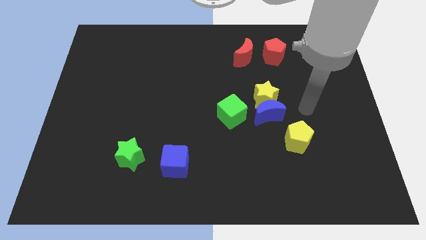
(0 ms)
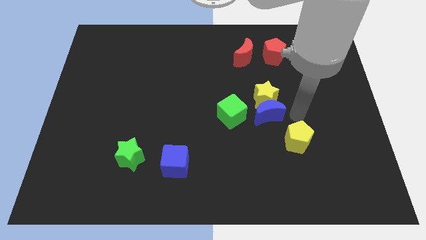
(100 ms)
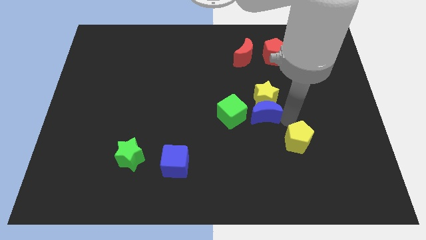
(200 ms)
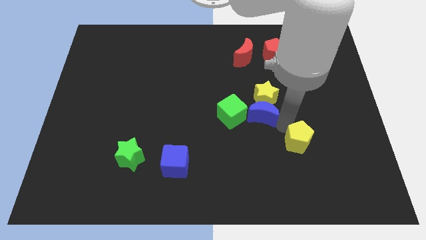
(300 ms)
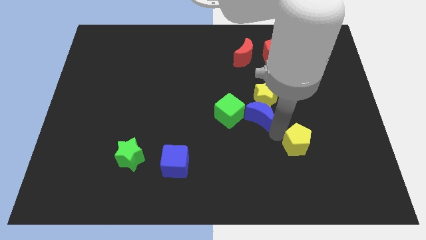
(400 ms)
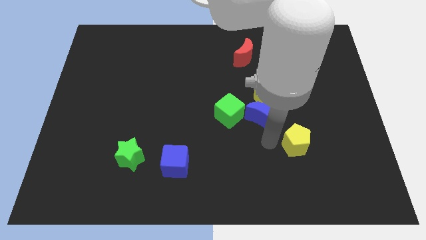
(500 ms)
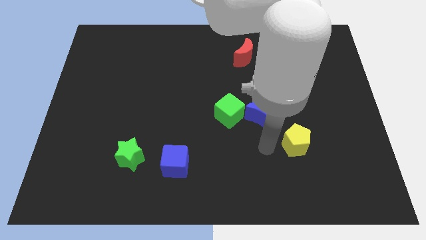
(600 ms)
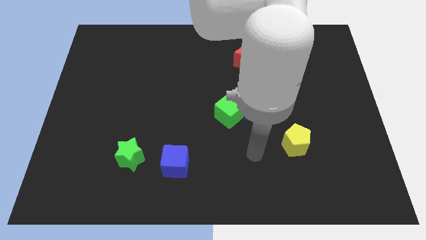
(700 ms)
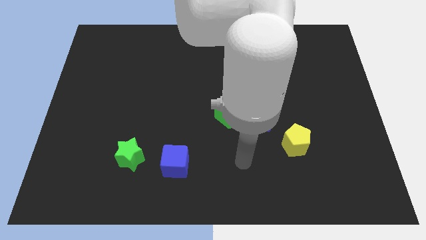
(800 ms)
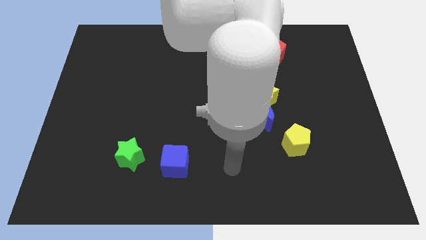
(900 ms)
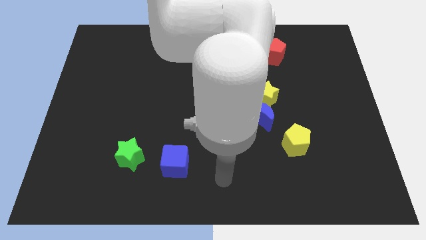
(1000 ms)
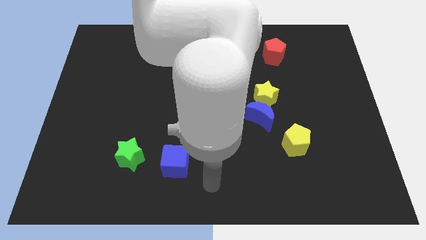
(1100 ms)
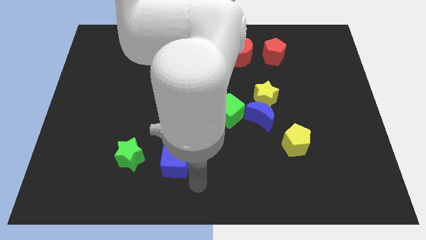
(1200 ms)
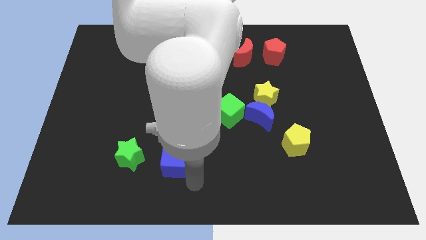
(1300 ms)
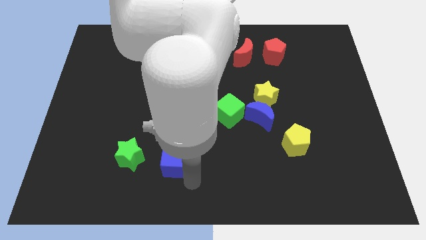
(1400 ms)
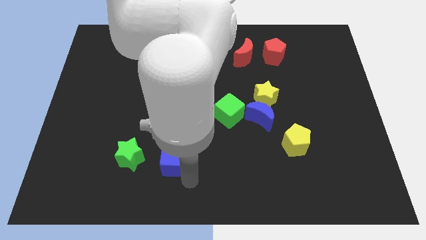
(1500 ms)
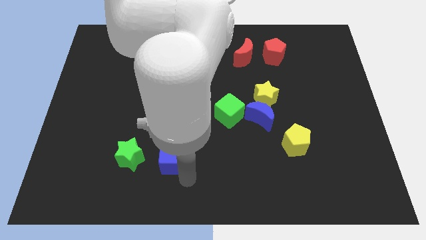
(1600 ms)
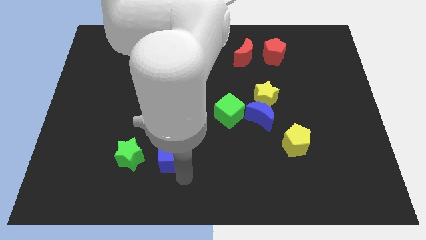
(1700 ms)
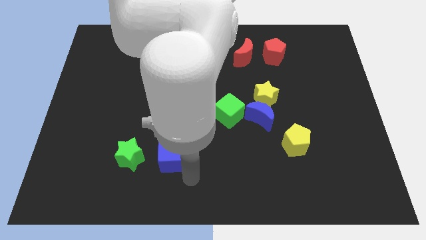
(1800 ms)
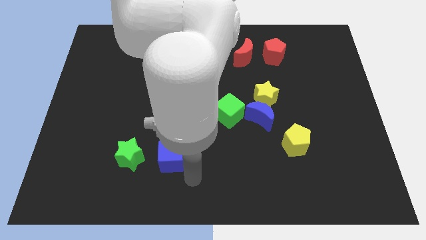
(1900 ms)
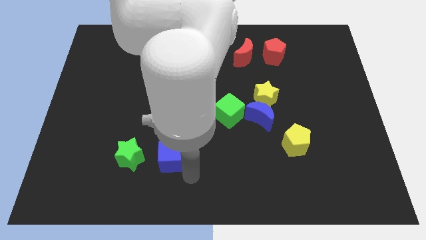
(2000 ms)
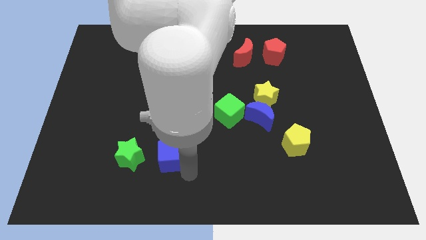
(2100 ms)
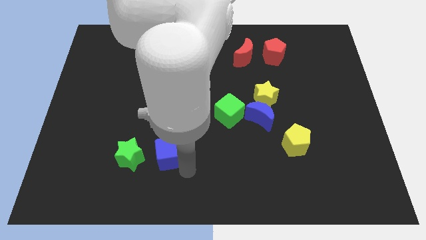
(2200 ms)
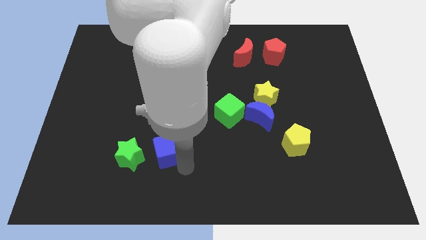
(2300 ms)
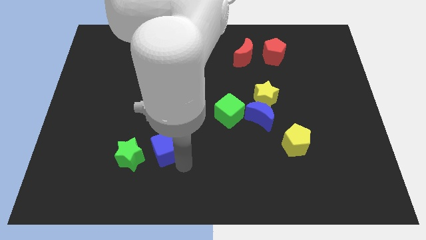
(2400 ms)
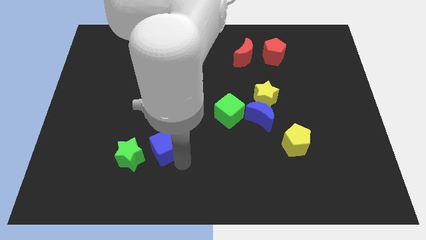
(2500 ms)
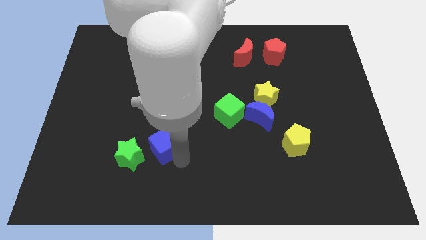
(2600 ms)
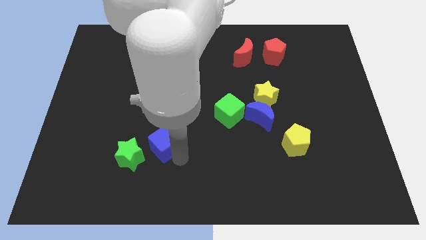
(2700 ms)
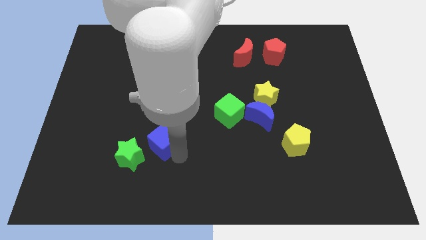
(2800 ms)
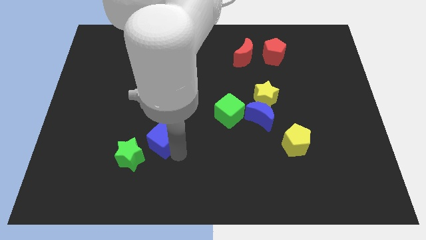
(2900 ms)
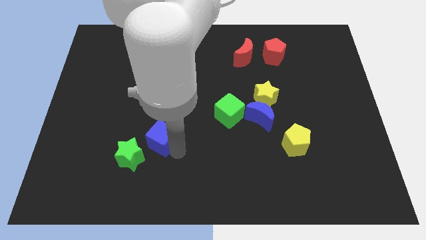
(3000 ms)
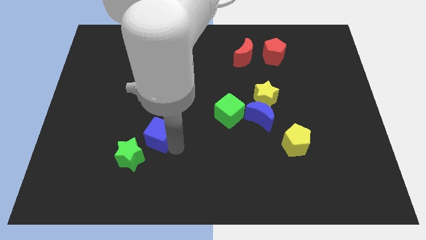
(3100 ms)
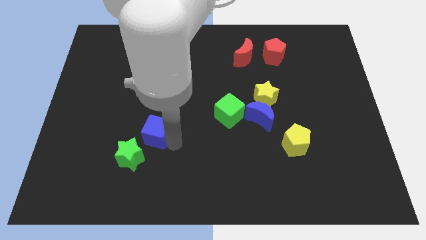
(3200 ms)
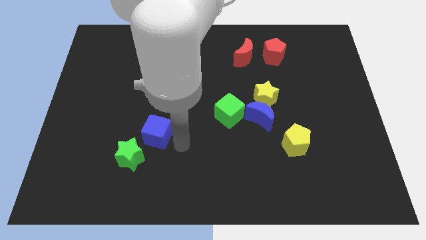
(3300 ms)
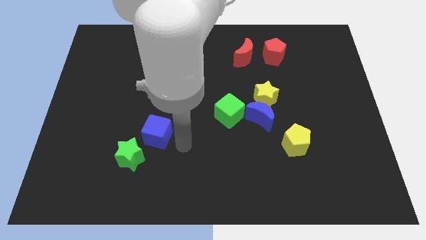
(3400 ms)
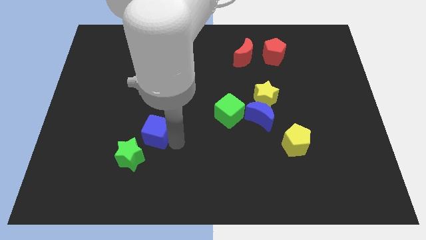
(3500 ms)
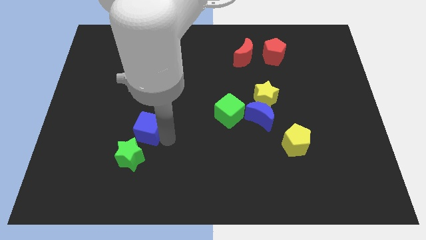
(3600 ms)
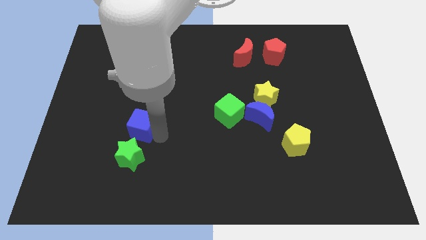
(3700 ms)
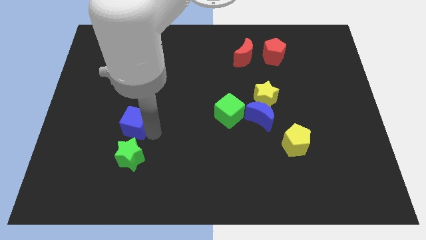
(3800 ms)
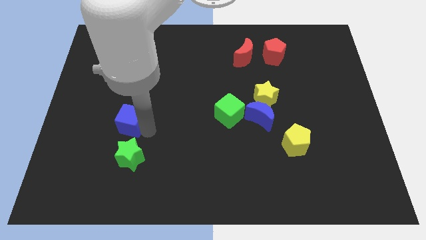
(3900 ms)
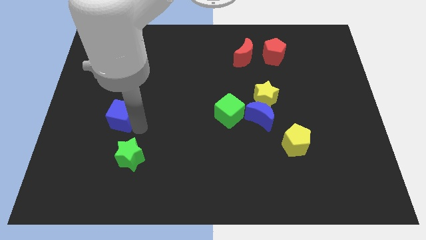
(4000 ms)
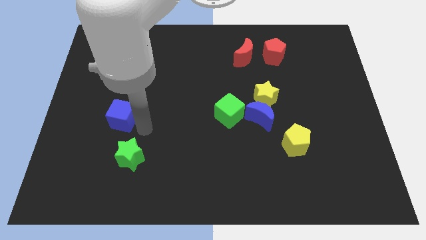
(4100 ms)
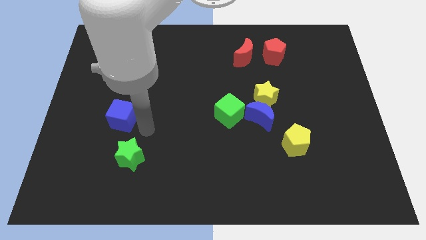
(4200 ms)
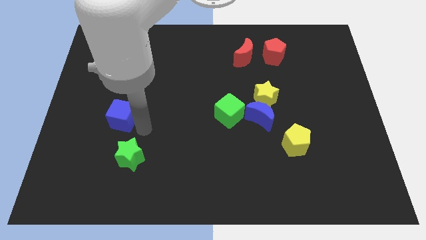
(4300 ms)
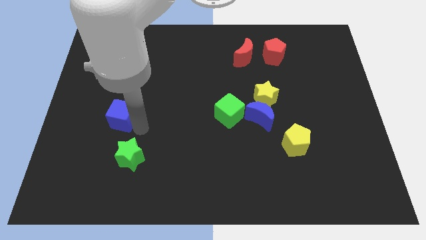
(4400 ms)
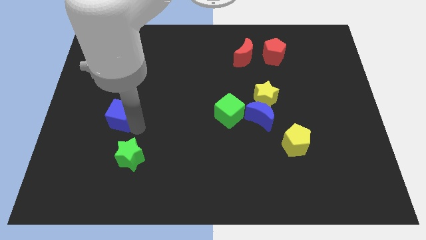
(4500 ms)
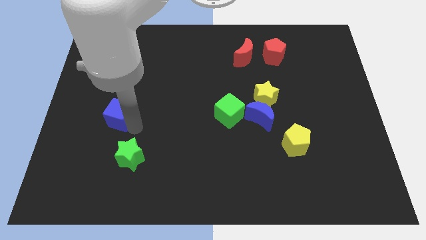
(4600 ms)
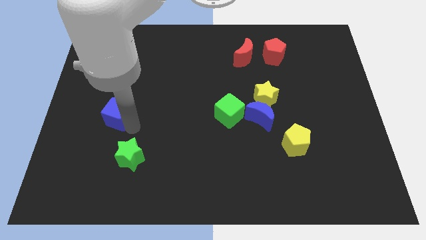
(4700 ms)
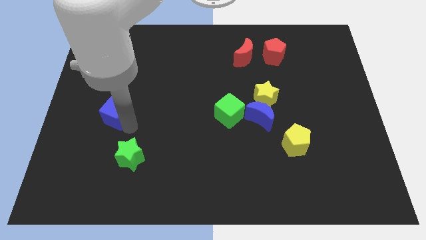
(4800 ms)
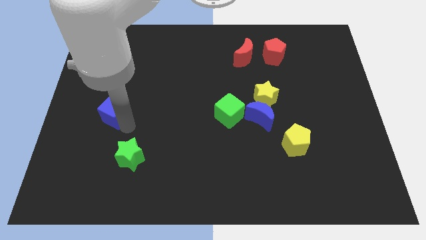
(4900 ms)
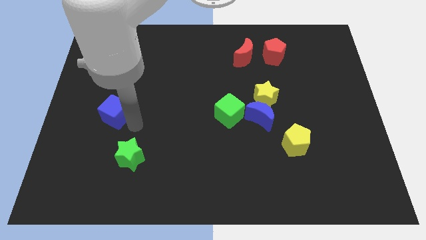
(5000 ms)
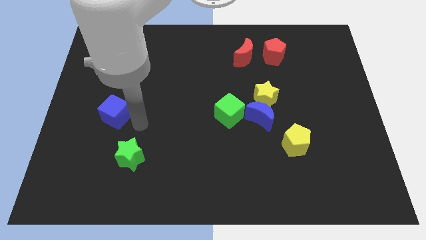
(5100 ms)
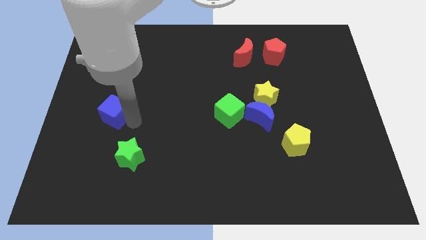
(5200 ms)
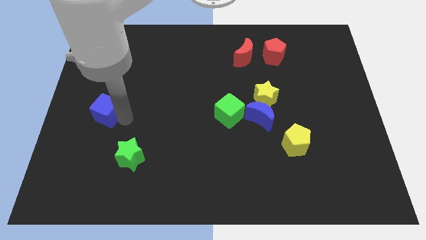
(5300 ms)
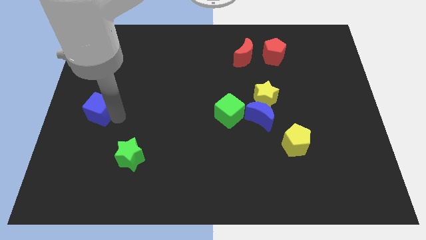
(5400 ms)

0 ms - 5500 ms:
slide the blue cube to the left side of the board

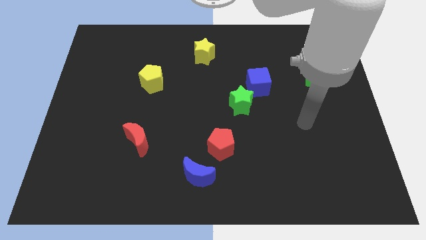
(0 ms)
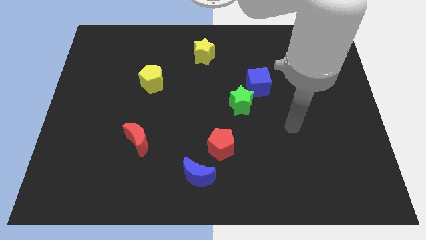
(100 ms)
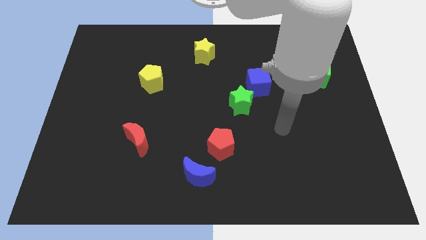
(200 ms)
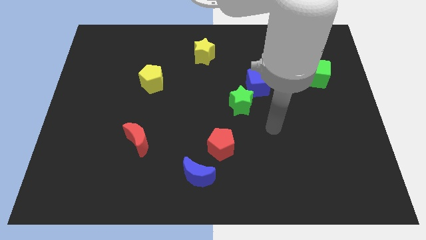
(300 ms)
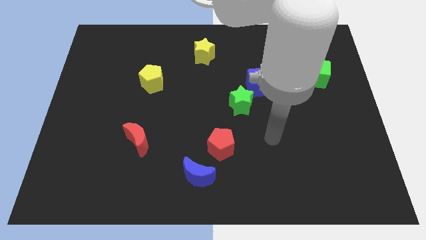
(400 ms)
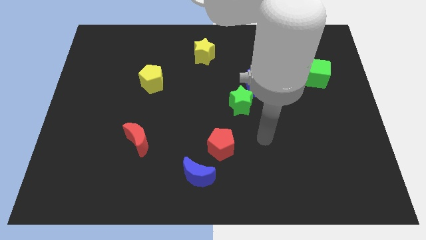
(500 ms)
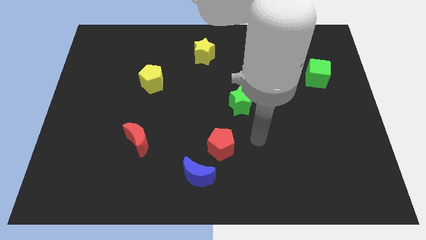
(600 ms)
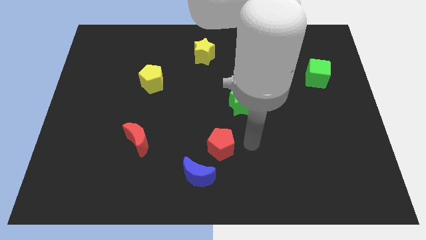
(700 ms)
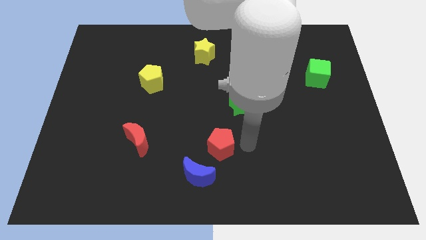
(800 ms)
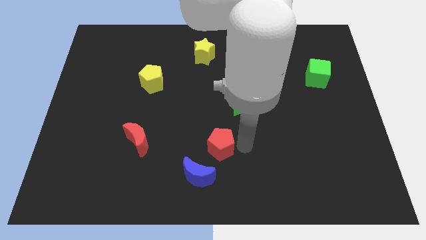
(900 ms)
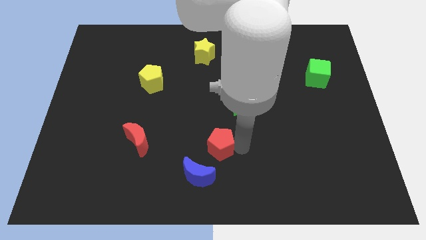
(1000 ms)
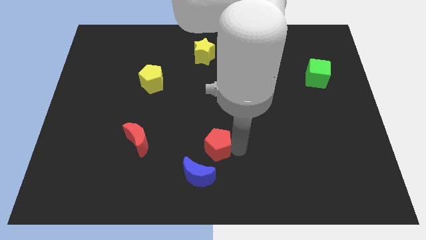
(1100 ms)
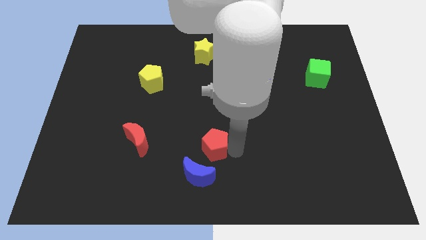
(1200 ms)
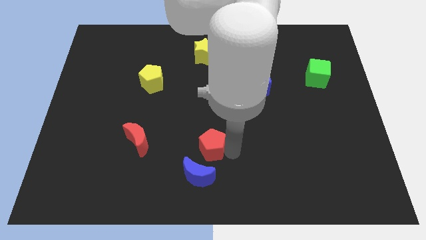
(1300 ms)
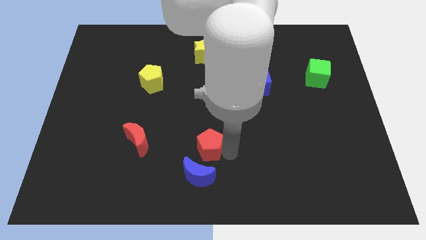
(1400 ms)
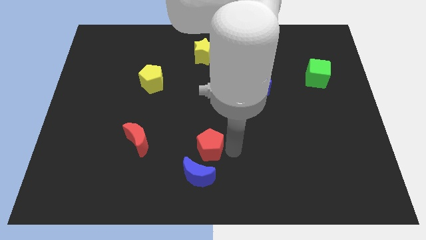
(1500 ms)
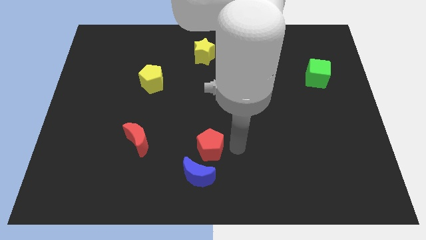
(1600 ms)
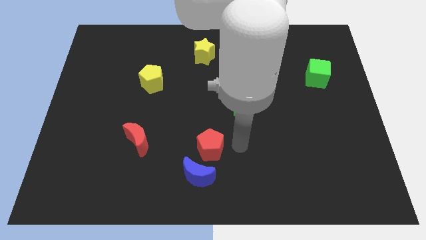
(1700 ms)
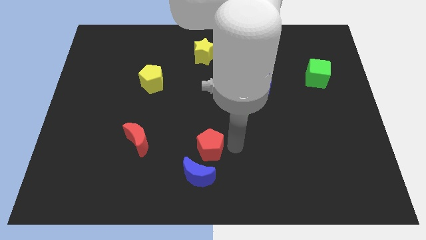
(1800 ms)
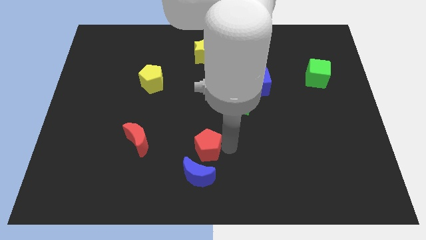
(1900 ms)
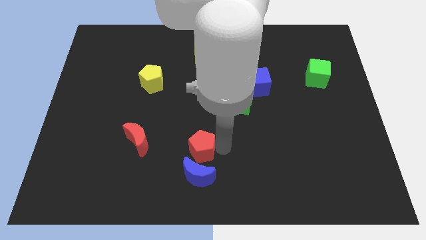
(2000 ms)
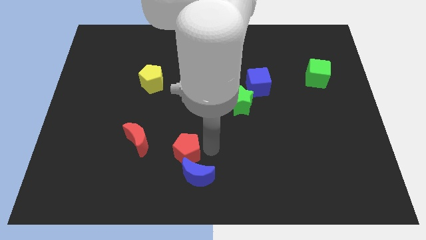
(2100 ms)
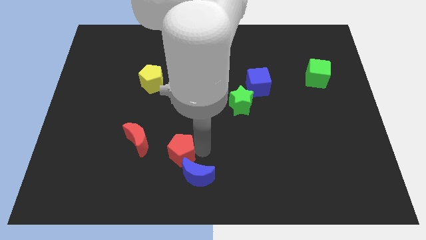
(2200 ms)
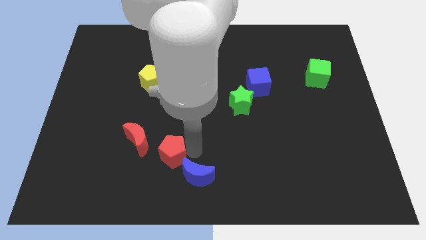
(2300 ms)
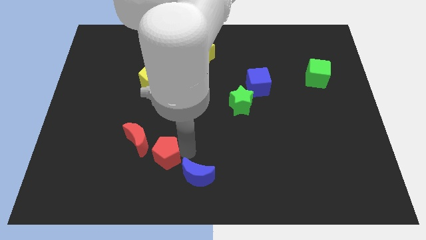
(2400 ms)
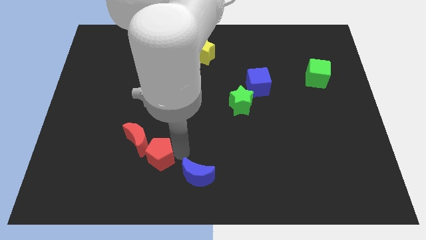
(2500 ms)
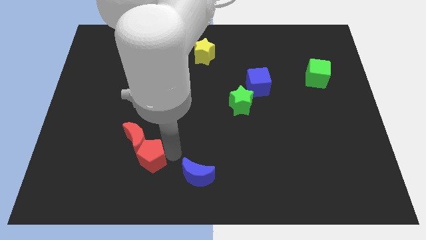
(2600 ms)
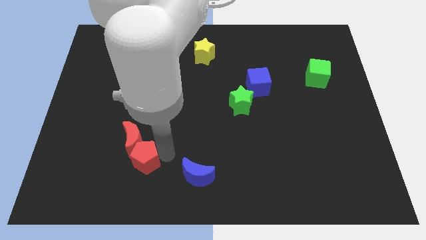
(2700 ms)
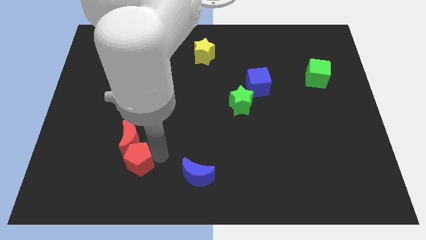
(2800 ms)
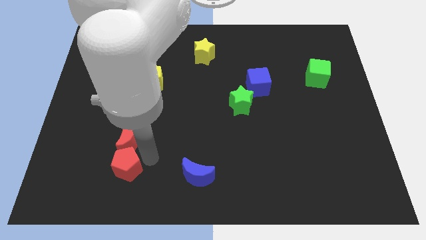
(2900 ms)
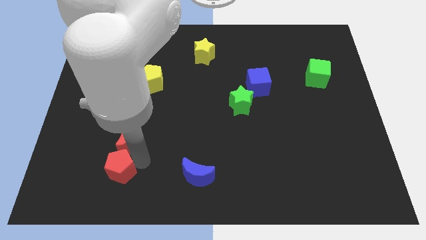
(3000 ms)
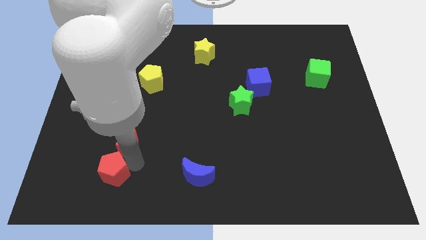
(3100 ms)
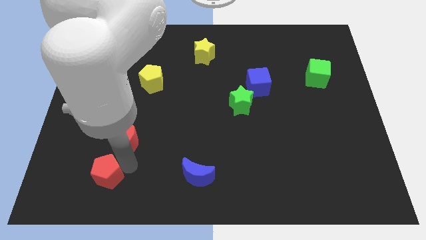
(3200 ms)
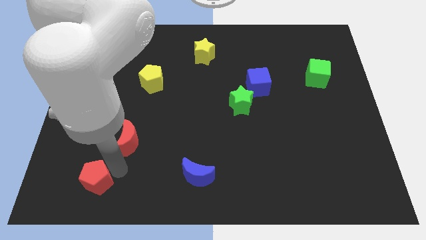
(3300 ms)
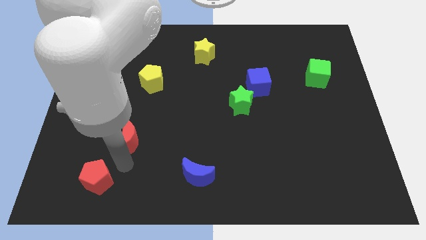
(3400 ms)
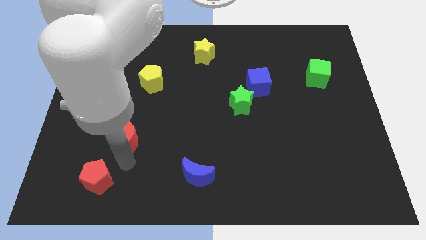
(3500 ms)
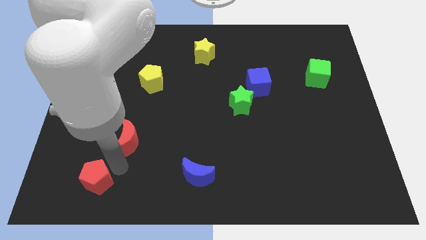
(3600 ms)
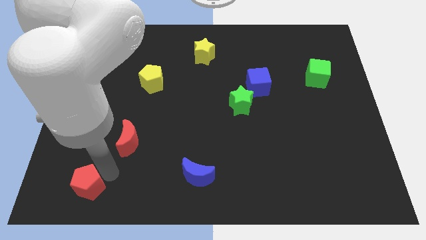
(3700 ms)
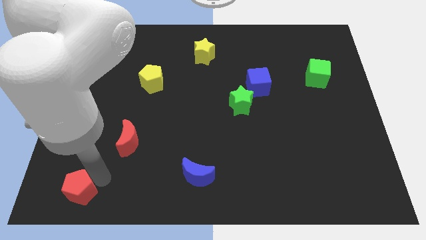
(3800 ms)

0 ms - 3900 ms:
slide the red pentagon to the bottom left corner
